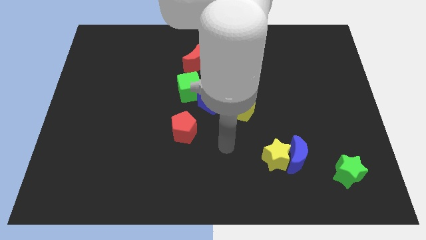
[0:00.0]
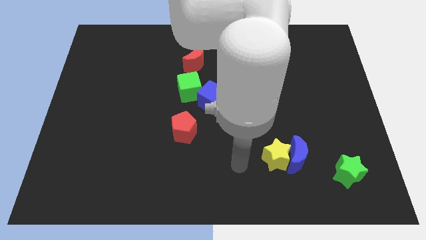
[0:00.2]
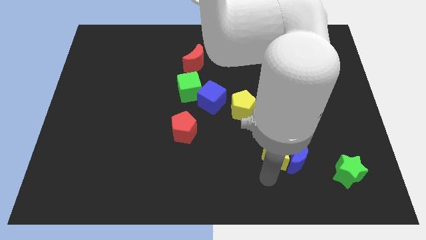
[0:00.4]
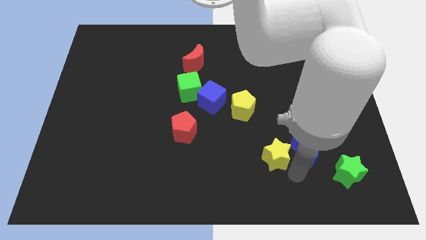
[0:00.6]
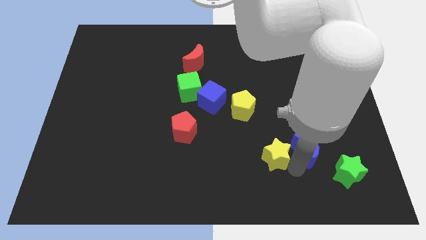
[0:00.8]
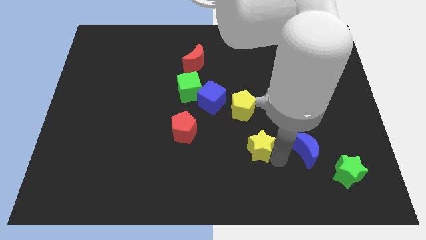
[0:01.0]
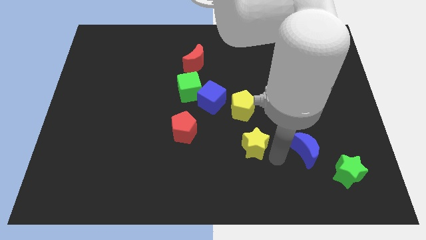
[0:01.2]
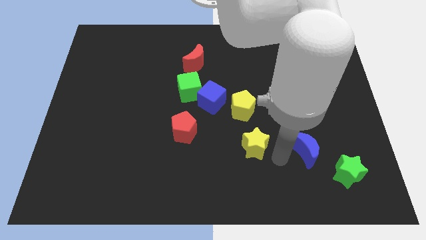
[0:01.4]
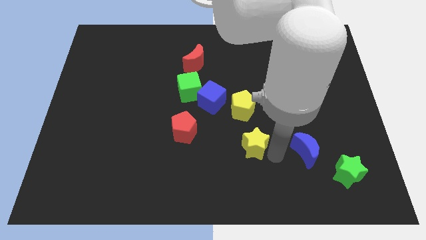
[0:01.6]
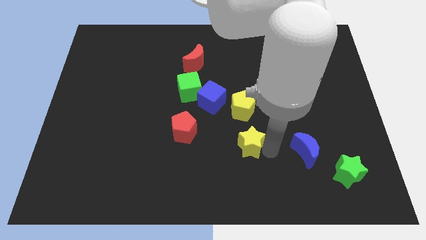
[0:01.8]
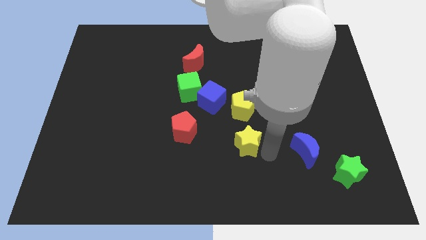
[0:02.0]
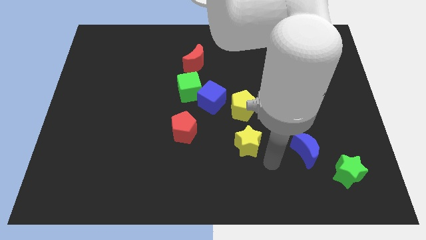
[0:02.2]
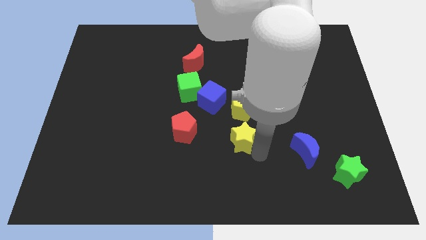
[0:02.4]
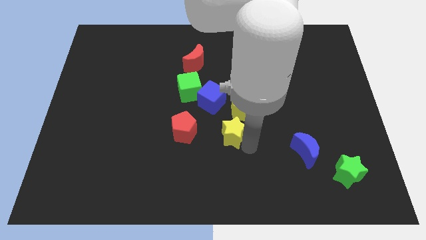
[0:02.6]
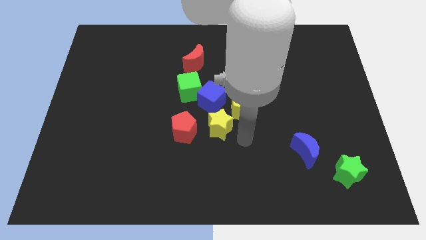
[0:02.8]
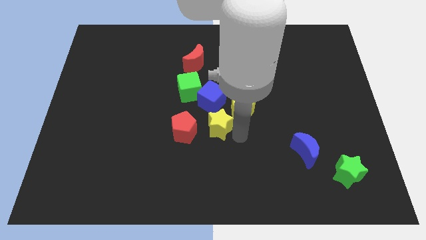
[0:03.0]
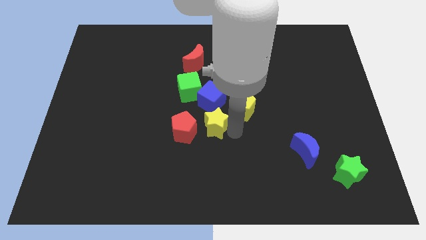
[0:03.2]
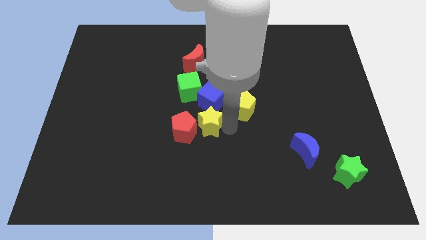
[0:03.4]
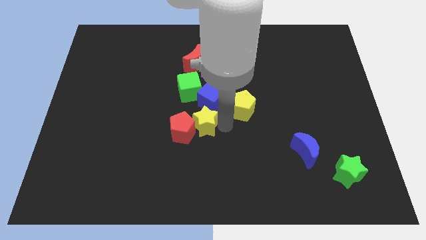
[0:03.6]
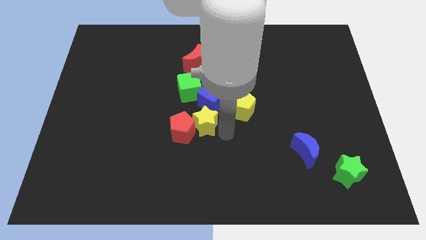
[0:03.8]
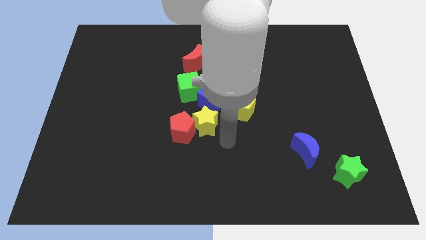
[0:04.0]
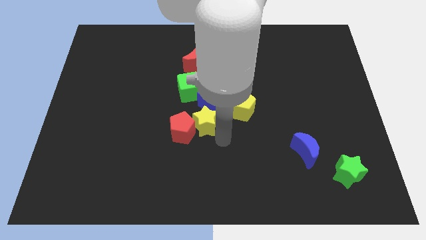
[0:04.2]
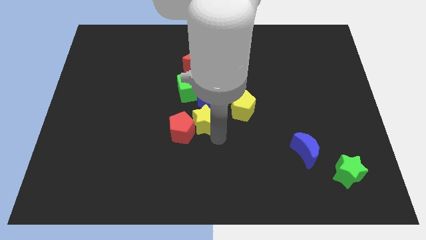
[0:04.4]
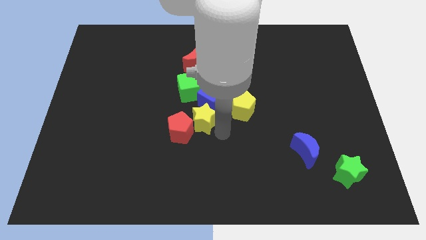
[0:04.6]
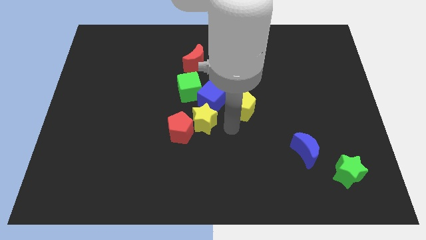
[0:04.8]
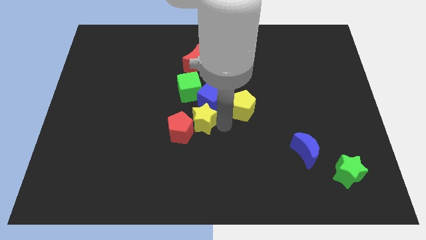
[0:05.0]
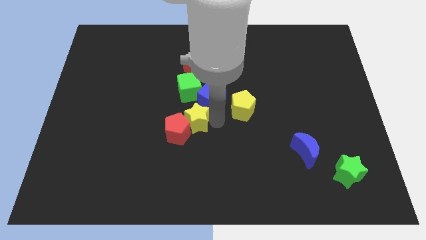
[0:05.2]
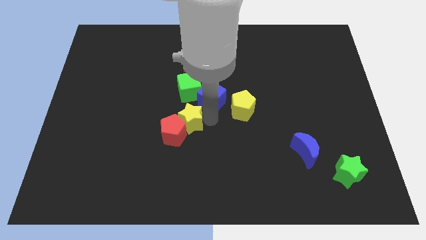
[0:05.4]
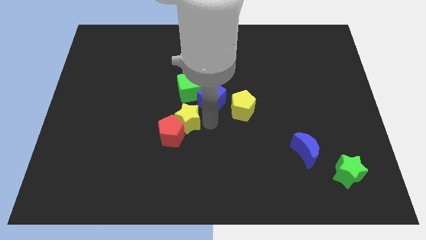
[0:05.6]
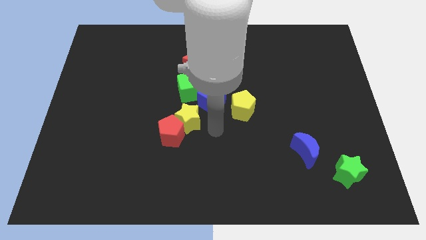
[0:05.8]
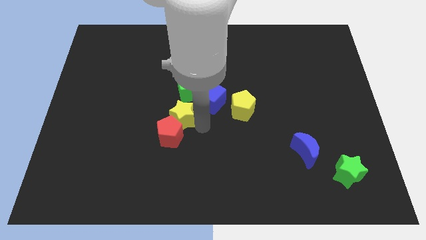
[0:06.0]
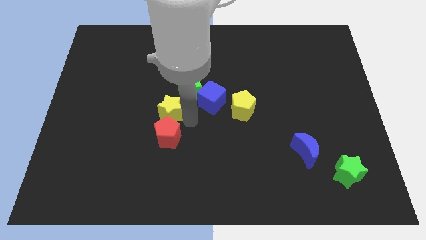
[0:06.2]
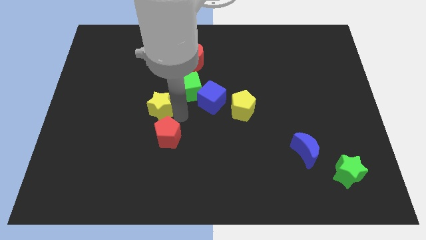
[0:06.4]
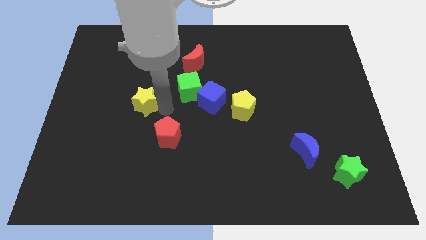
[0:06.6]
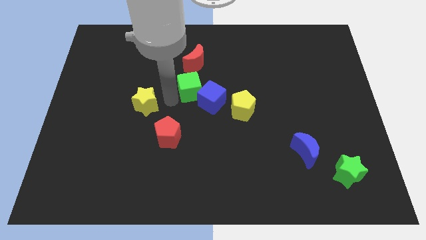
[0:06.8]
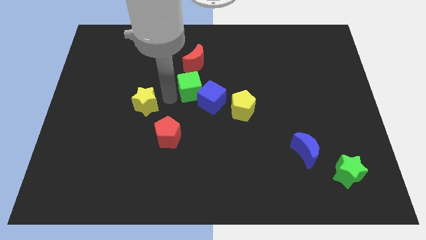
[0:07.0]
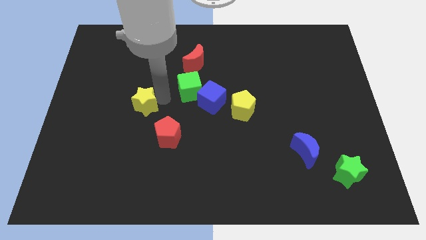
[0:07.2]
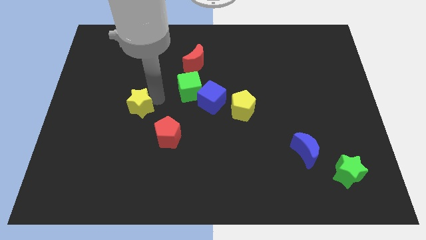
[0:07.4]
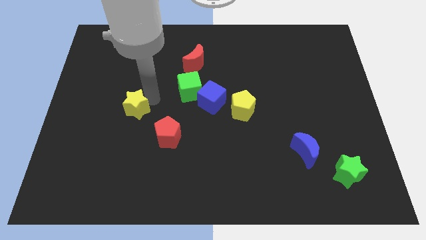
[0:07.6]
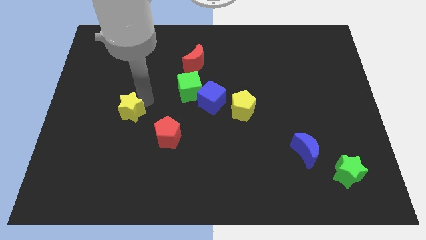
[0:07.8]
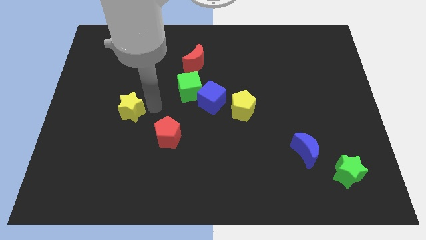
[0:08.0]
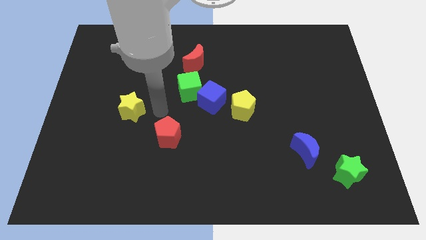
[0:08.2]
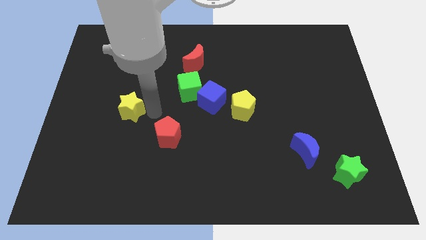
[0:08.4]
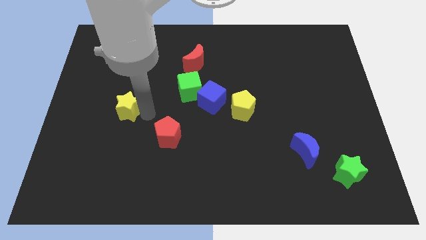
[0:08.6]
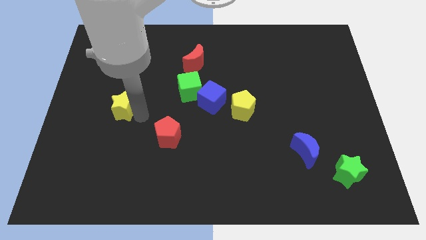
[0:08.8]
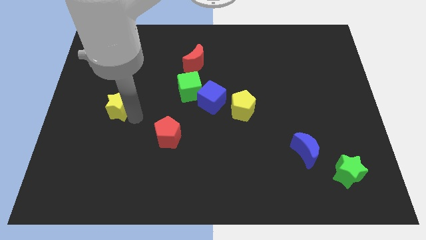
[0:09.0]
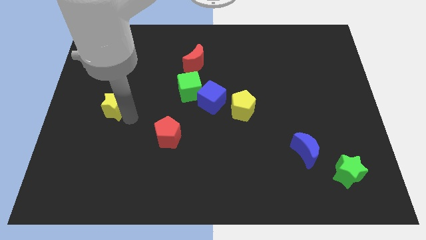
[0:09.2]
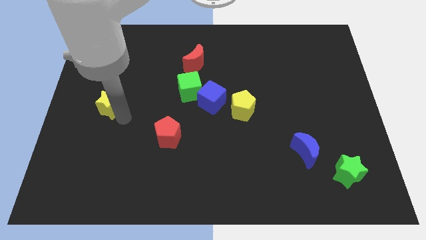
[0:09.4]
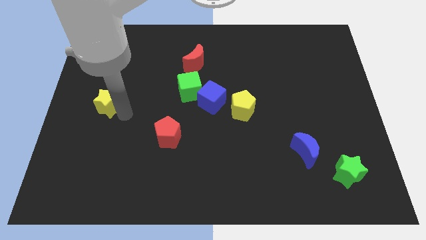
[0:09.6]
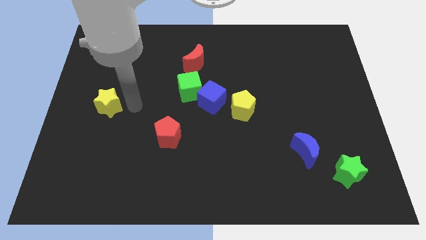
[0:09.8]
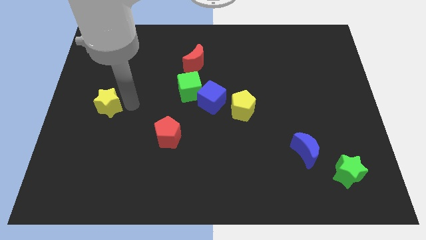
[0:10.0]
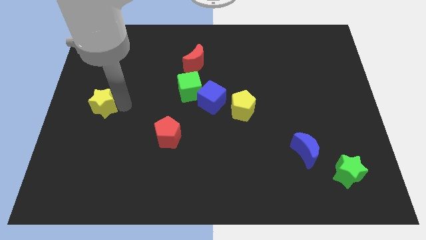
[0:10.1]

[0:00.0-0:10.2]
push the yellow star to the left side

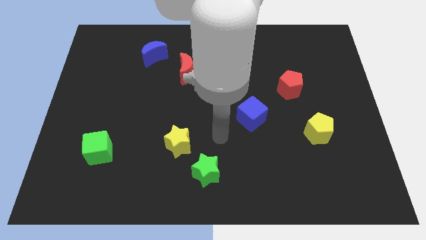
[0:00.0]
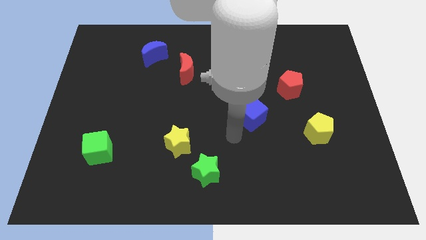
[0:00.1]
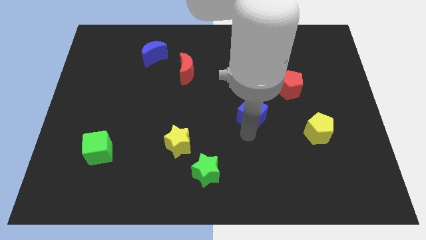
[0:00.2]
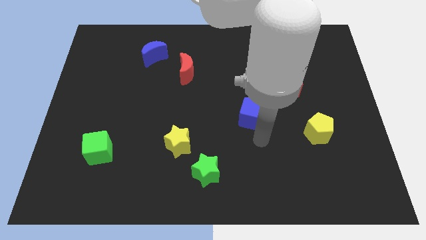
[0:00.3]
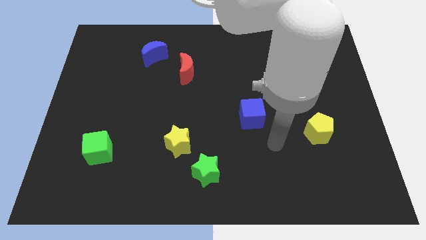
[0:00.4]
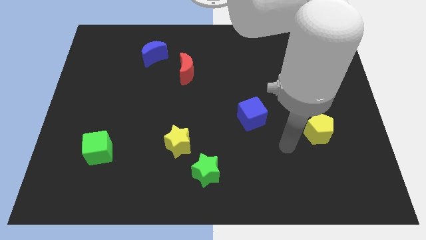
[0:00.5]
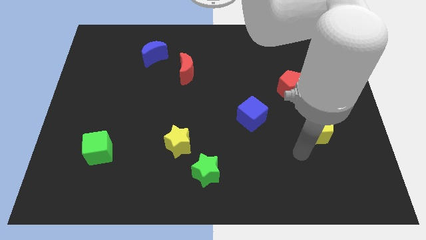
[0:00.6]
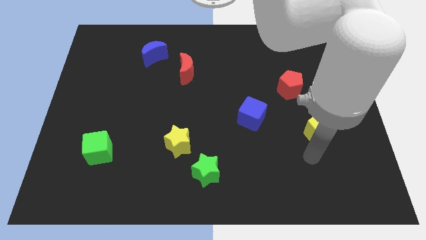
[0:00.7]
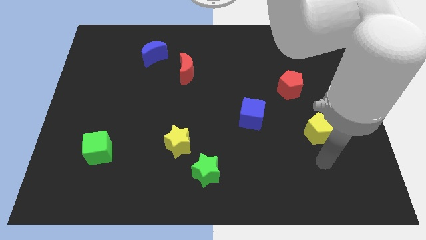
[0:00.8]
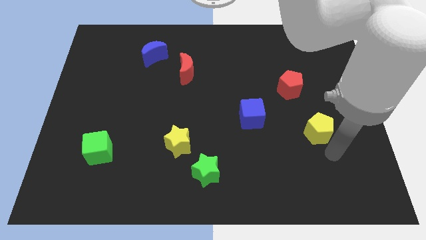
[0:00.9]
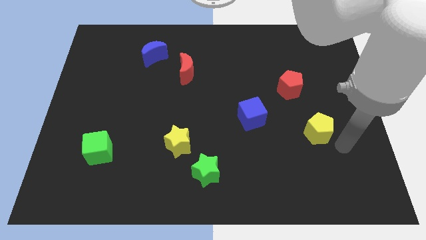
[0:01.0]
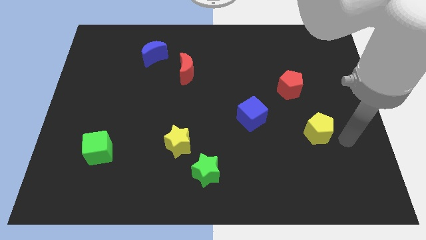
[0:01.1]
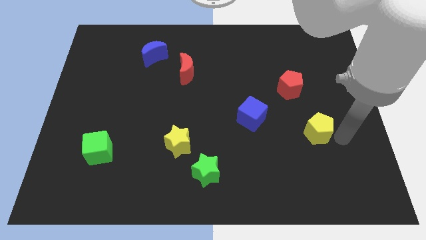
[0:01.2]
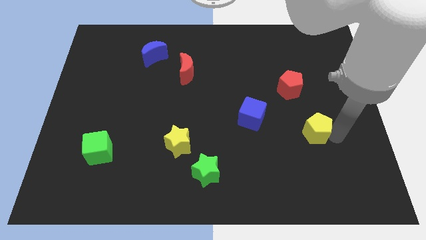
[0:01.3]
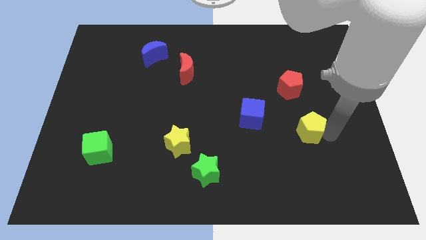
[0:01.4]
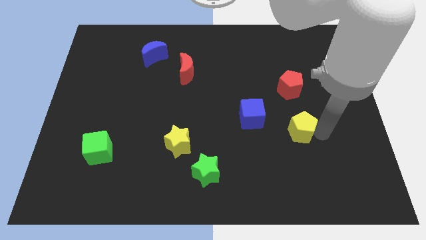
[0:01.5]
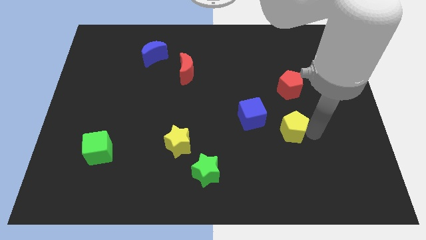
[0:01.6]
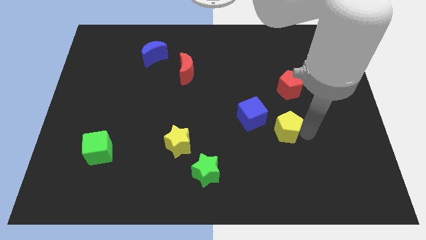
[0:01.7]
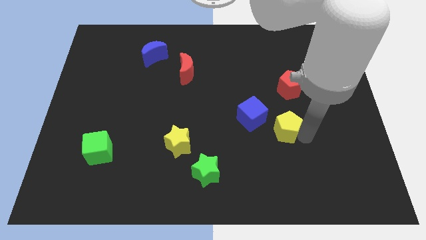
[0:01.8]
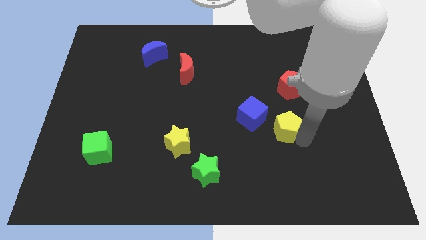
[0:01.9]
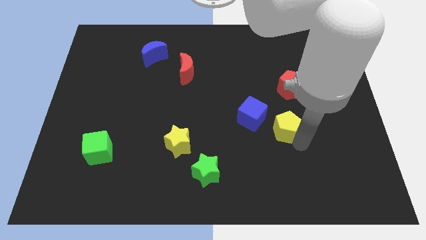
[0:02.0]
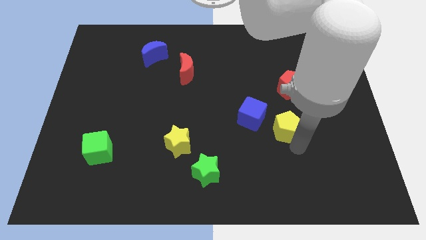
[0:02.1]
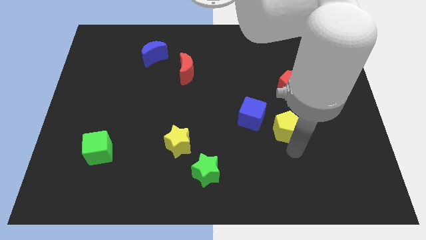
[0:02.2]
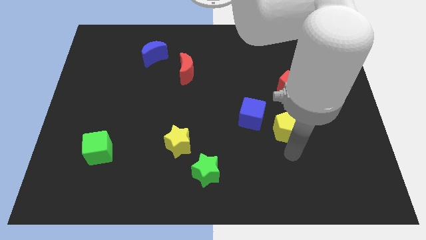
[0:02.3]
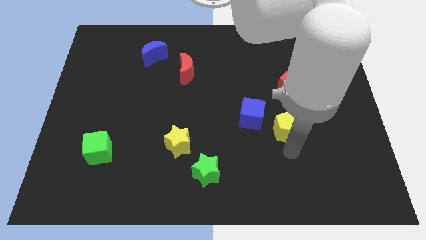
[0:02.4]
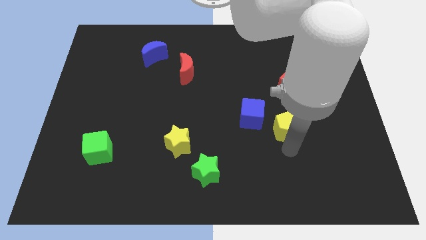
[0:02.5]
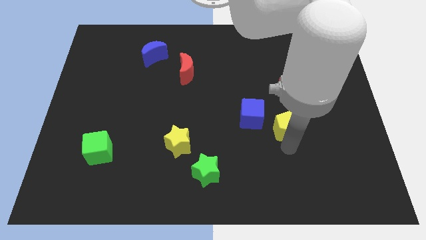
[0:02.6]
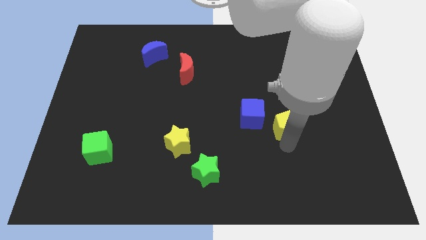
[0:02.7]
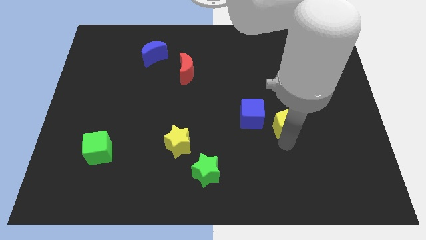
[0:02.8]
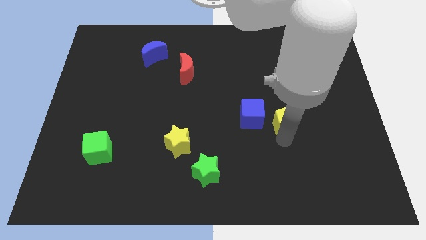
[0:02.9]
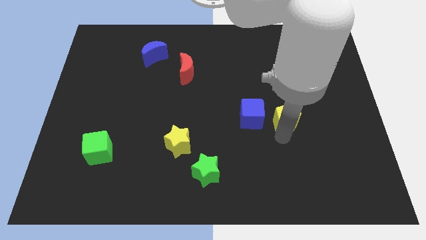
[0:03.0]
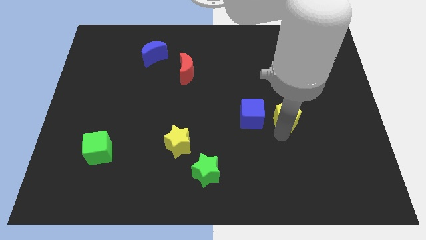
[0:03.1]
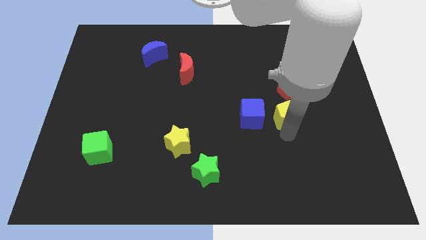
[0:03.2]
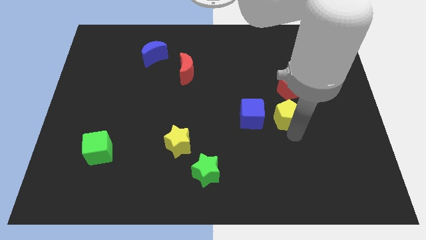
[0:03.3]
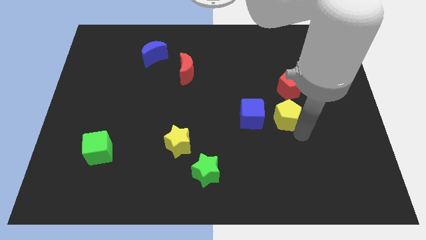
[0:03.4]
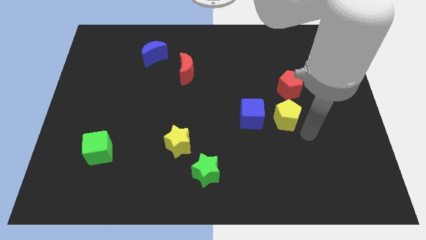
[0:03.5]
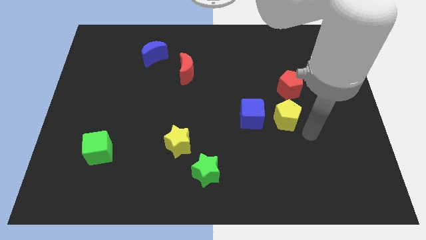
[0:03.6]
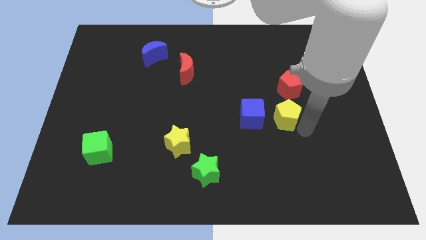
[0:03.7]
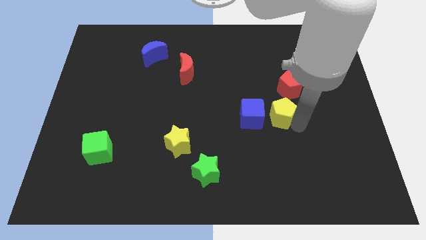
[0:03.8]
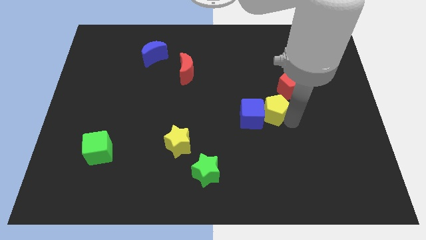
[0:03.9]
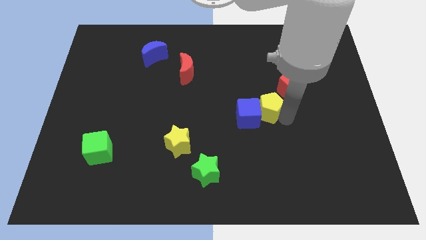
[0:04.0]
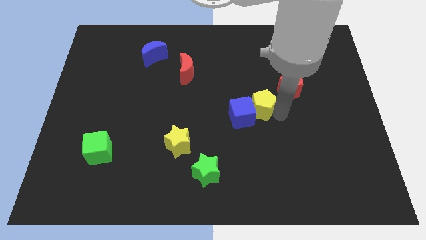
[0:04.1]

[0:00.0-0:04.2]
move the yellow pentagon to the middle of the board
